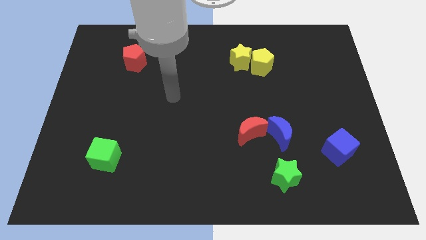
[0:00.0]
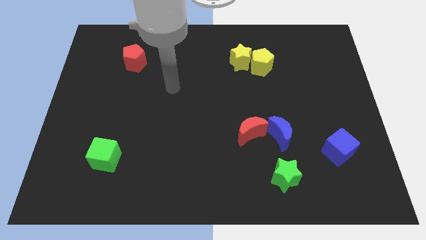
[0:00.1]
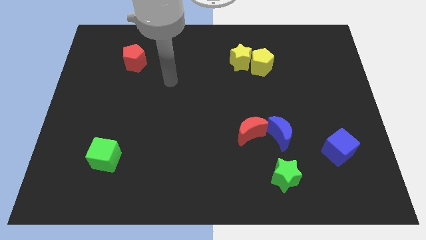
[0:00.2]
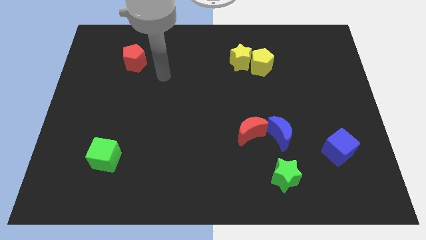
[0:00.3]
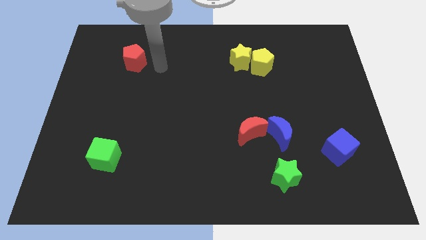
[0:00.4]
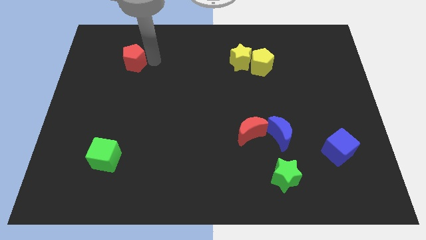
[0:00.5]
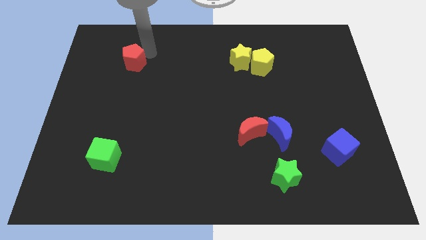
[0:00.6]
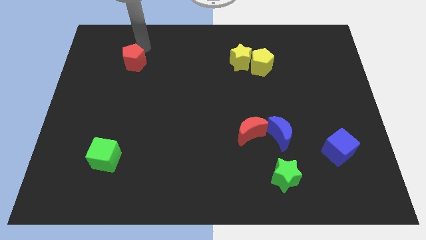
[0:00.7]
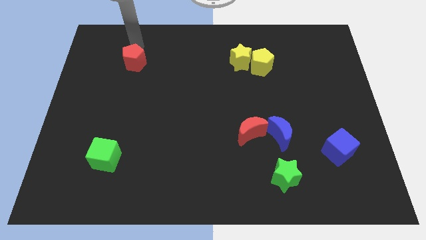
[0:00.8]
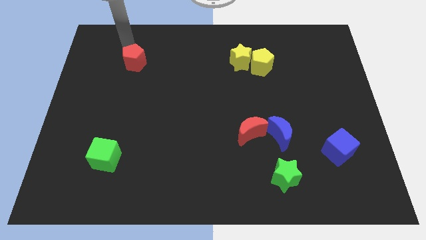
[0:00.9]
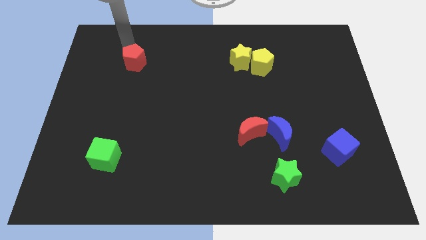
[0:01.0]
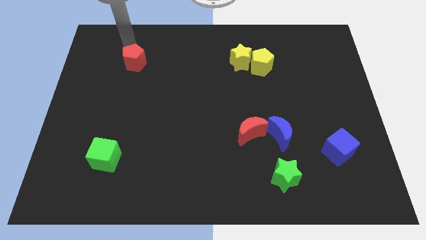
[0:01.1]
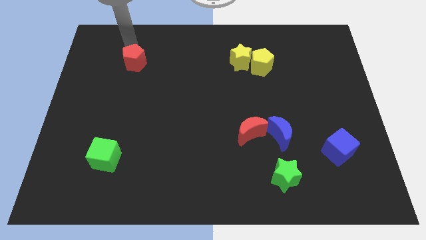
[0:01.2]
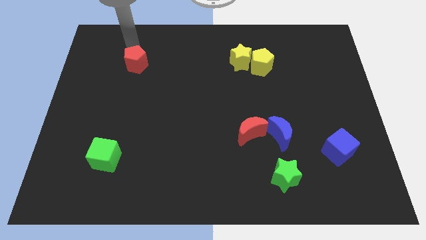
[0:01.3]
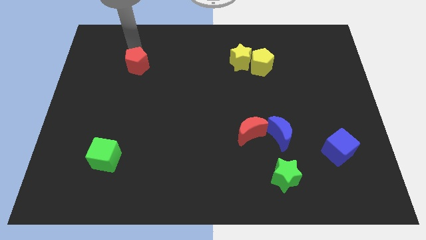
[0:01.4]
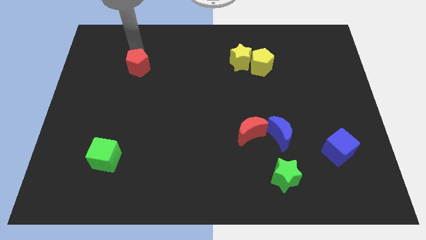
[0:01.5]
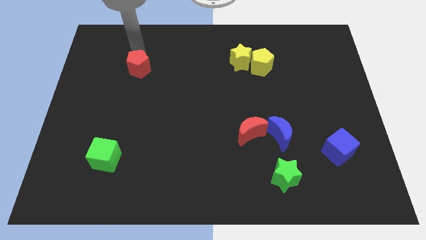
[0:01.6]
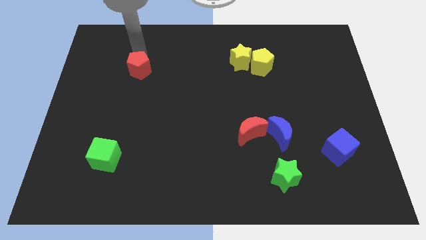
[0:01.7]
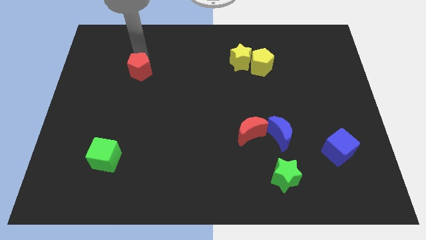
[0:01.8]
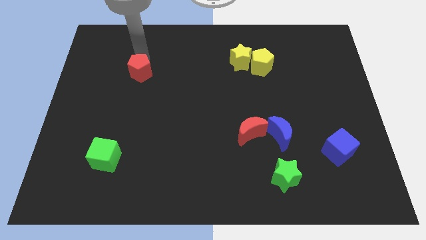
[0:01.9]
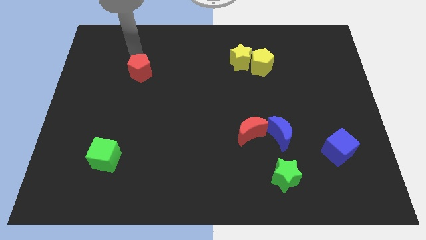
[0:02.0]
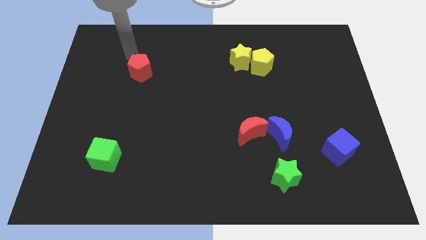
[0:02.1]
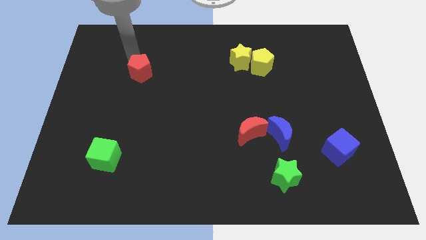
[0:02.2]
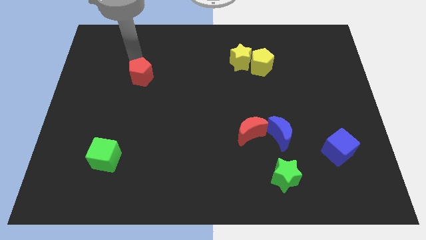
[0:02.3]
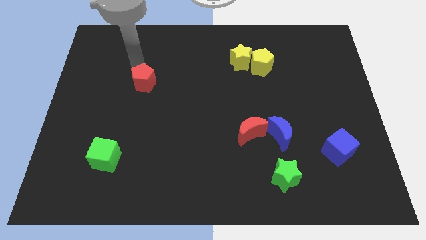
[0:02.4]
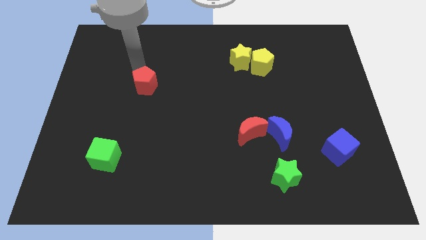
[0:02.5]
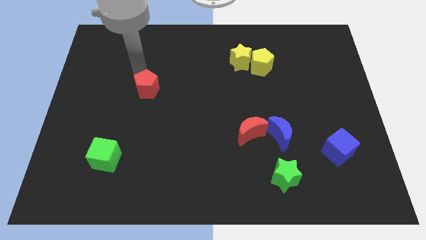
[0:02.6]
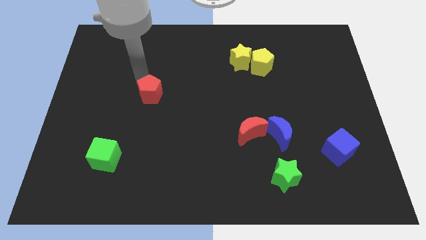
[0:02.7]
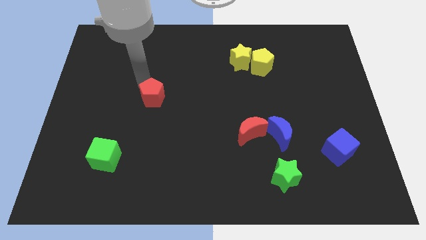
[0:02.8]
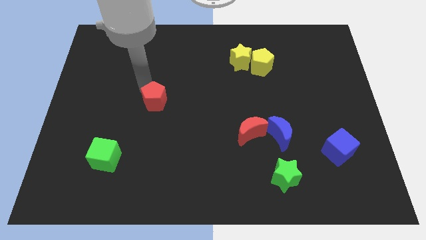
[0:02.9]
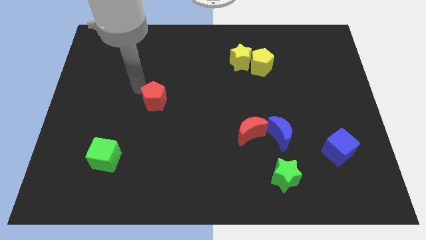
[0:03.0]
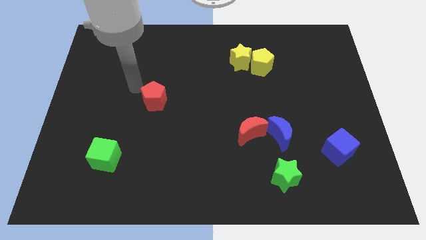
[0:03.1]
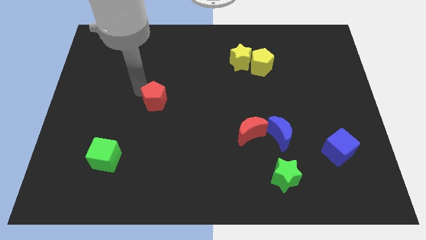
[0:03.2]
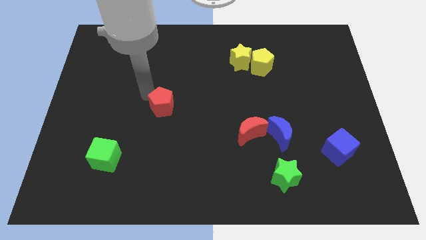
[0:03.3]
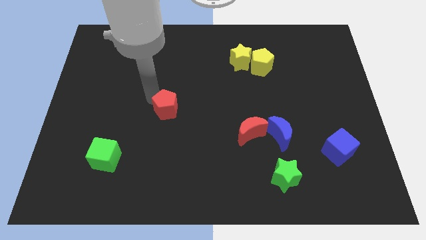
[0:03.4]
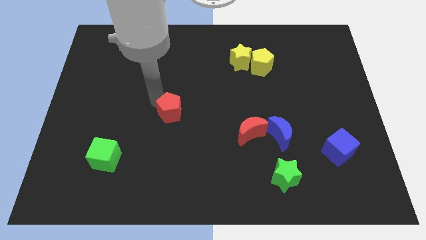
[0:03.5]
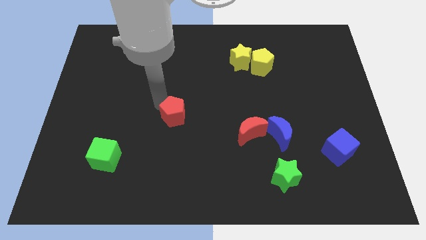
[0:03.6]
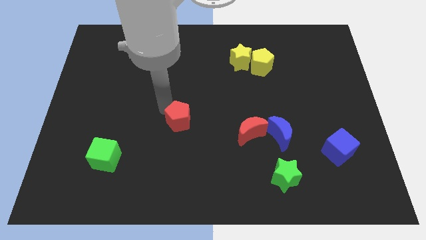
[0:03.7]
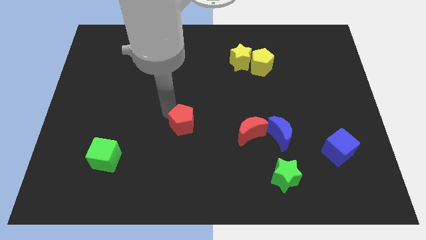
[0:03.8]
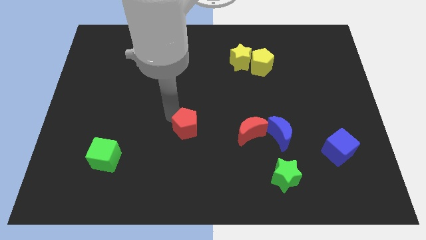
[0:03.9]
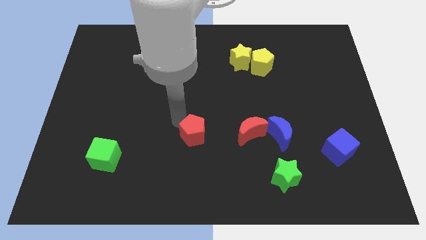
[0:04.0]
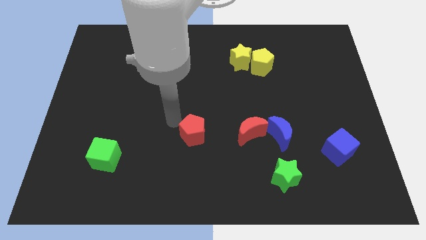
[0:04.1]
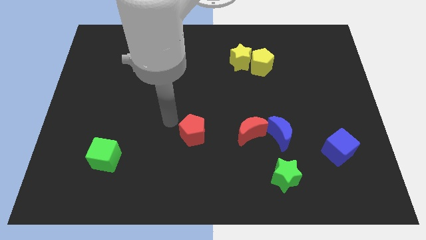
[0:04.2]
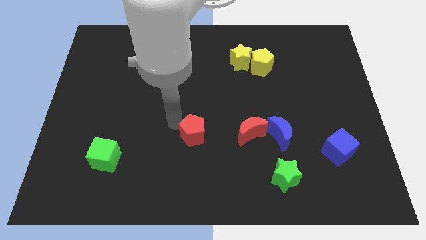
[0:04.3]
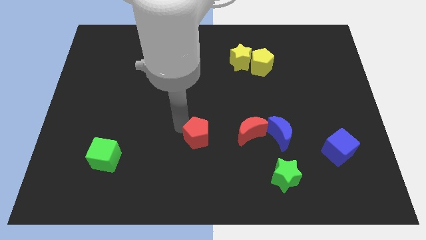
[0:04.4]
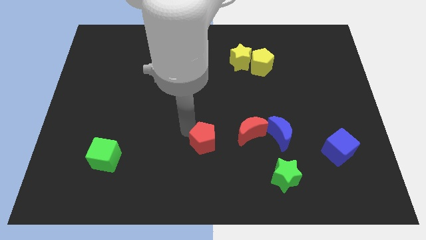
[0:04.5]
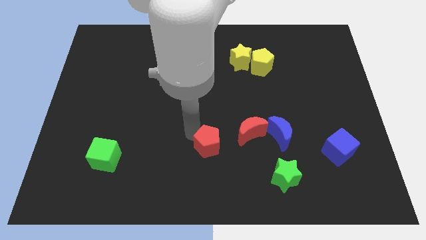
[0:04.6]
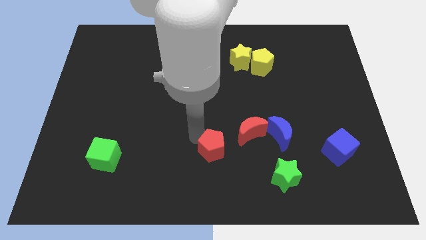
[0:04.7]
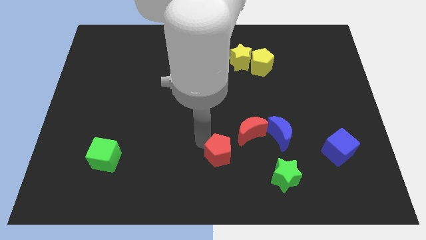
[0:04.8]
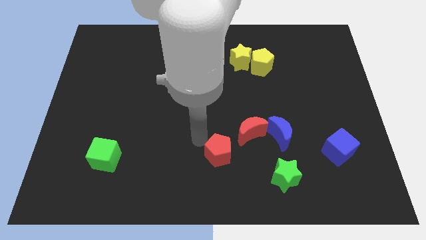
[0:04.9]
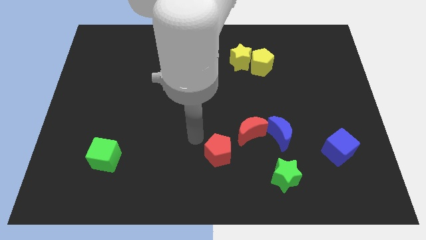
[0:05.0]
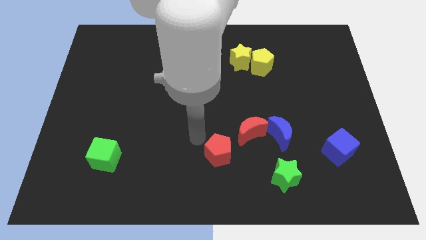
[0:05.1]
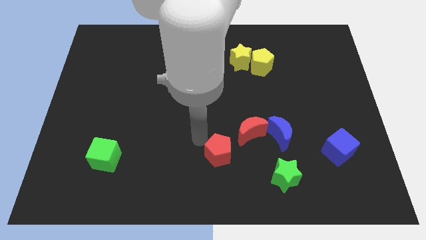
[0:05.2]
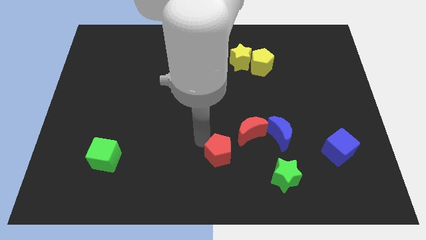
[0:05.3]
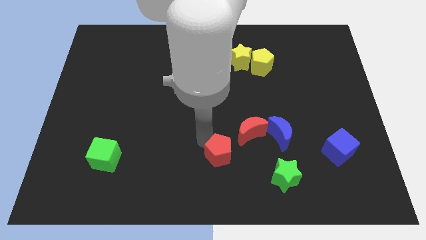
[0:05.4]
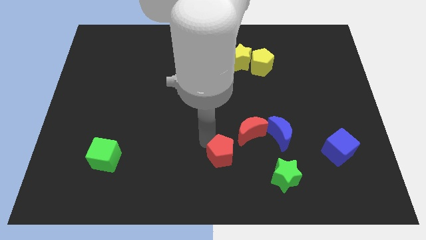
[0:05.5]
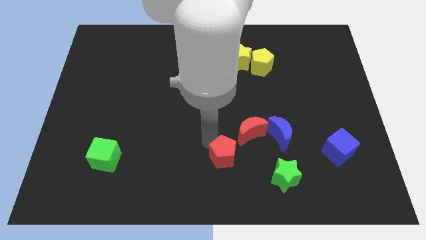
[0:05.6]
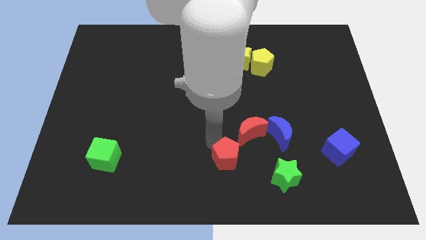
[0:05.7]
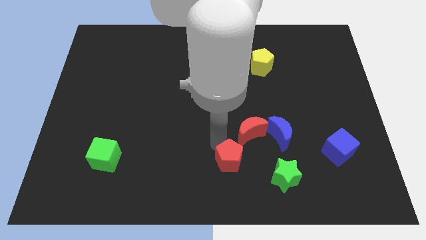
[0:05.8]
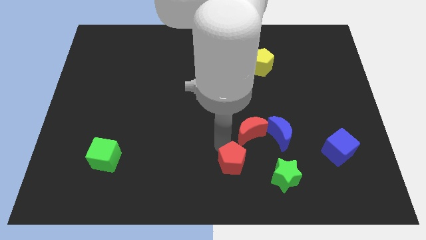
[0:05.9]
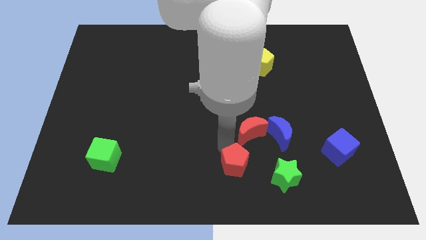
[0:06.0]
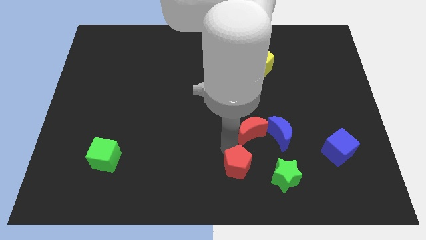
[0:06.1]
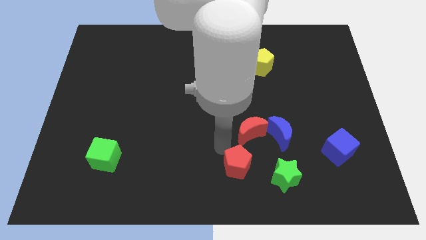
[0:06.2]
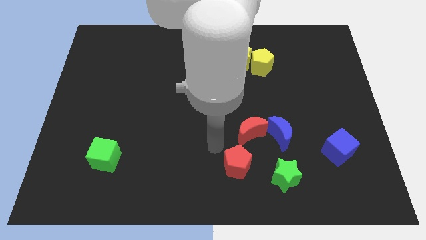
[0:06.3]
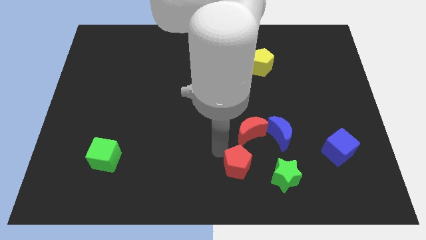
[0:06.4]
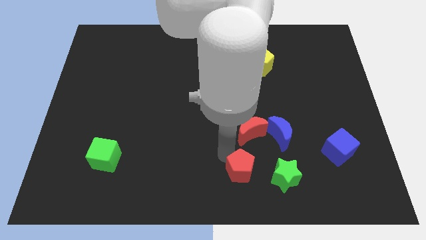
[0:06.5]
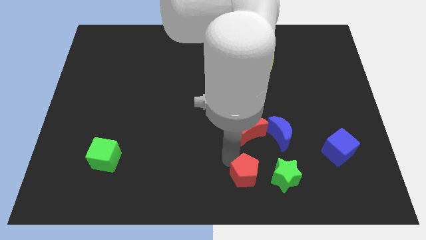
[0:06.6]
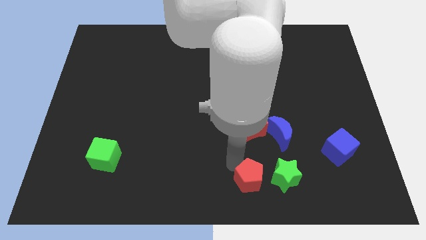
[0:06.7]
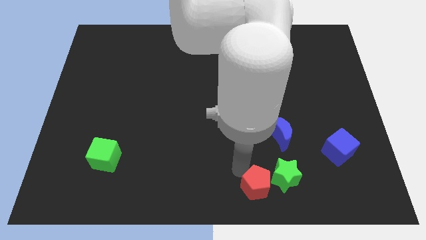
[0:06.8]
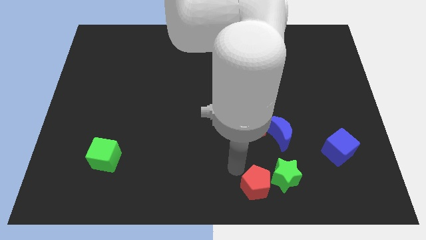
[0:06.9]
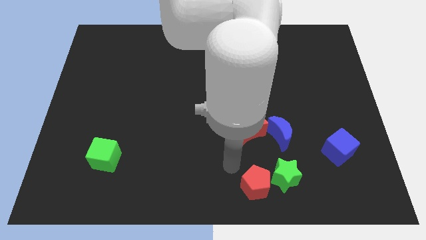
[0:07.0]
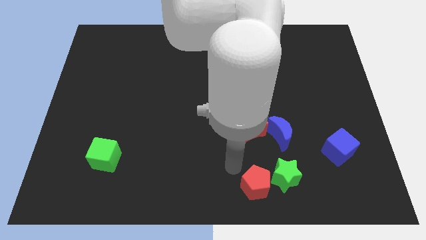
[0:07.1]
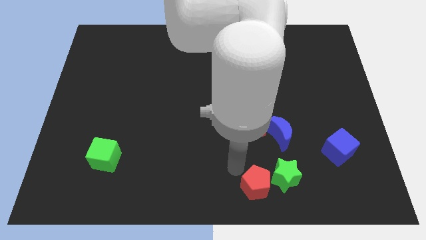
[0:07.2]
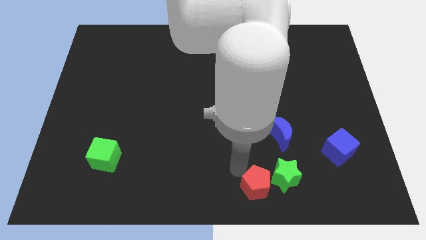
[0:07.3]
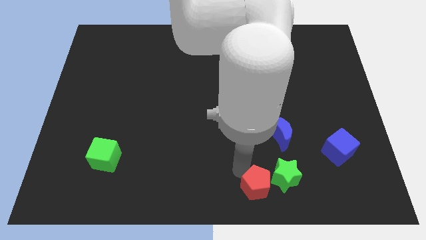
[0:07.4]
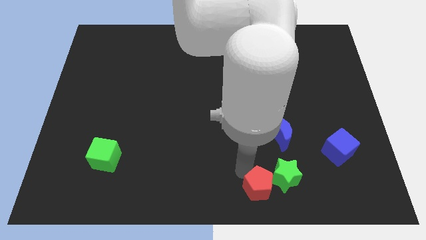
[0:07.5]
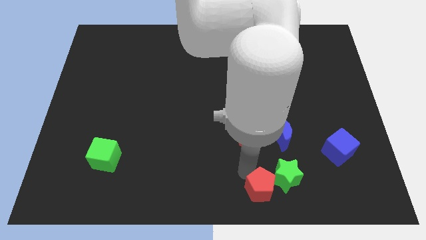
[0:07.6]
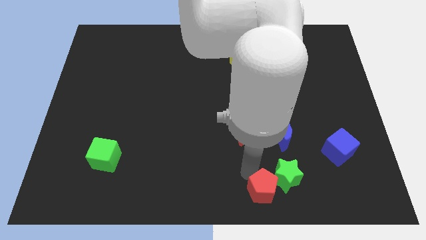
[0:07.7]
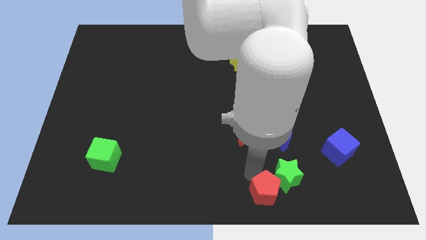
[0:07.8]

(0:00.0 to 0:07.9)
push the red pentagon to the bottom side of the blue moon
